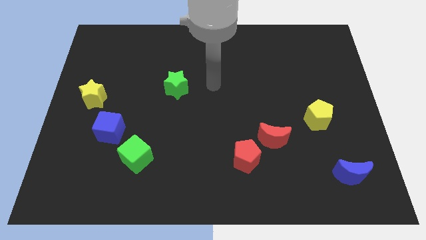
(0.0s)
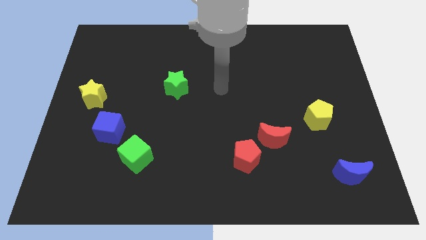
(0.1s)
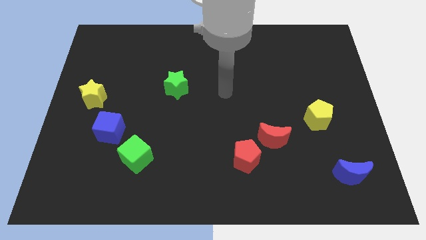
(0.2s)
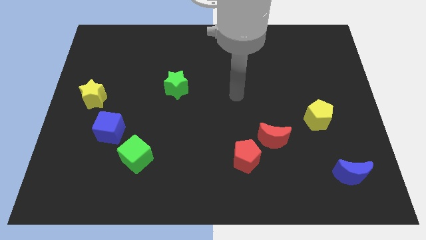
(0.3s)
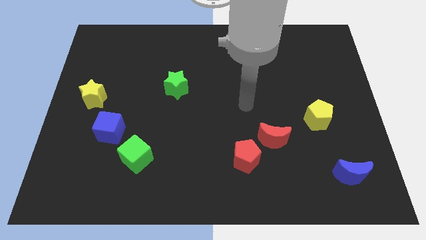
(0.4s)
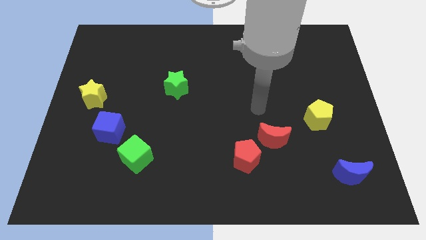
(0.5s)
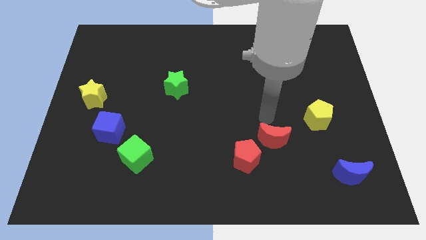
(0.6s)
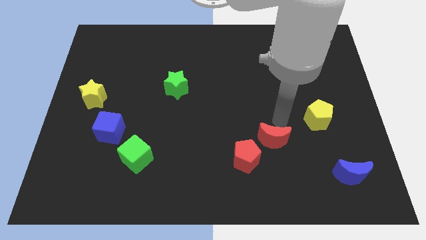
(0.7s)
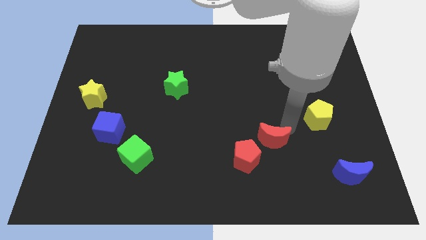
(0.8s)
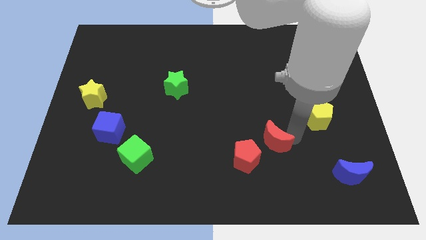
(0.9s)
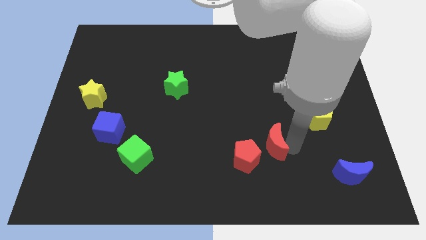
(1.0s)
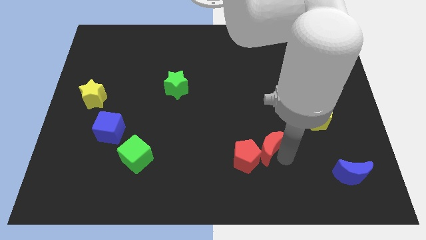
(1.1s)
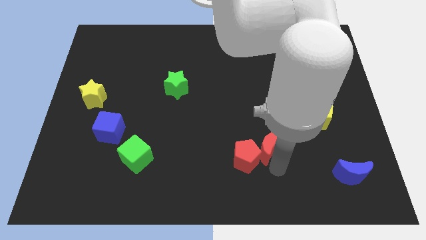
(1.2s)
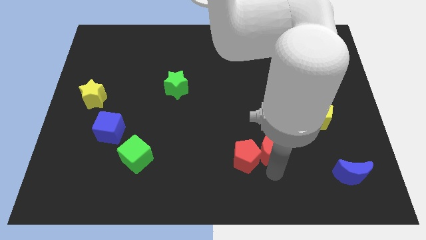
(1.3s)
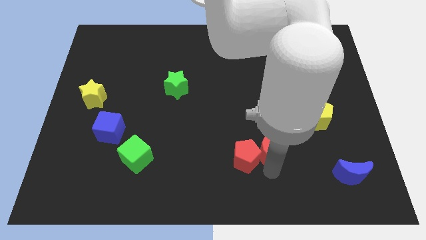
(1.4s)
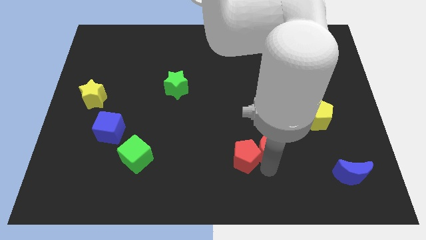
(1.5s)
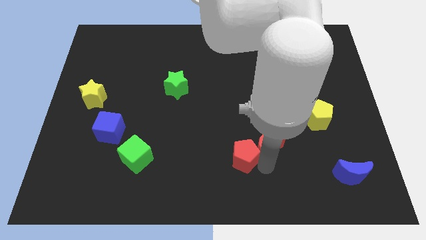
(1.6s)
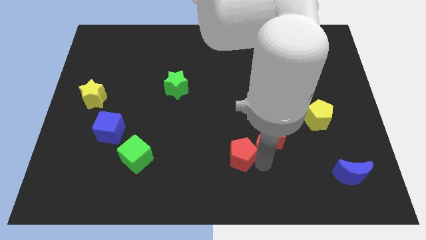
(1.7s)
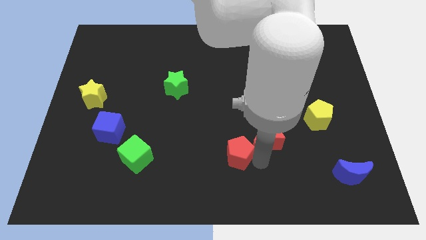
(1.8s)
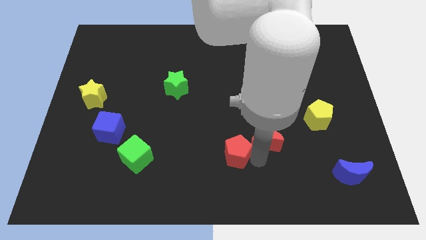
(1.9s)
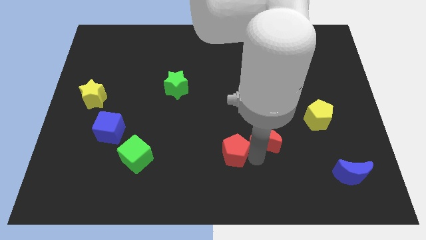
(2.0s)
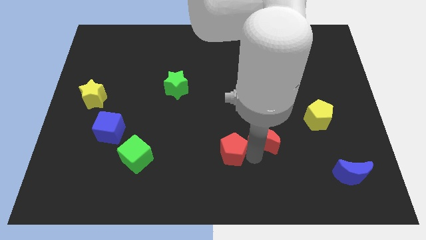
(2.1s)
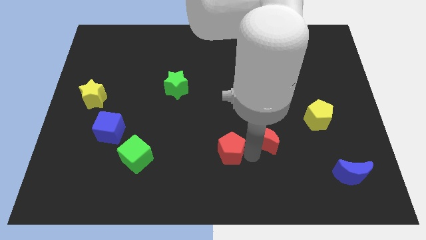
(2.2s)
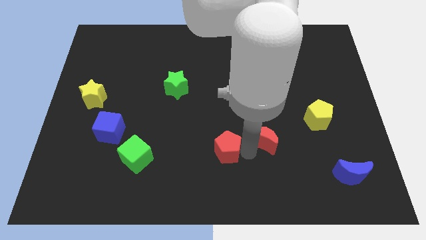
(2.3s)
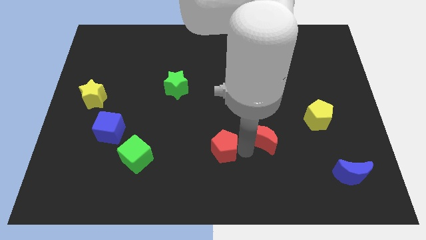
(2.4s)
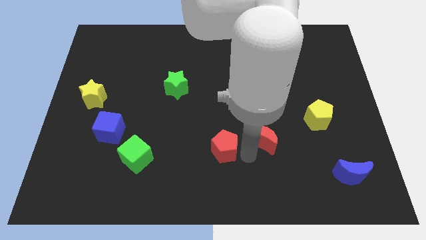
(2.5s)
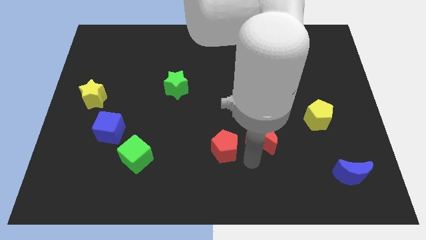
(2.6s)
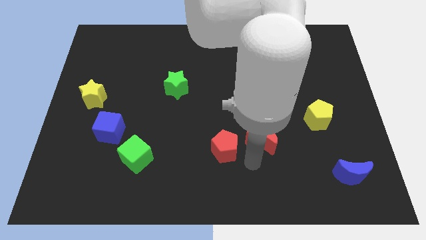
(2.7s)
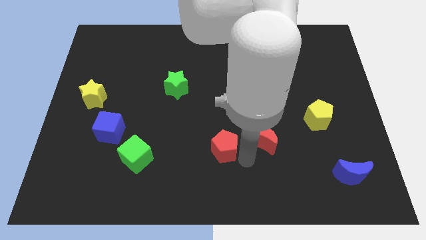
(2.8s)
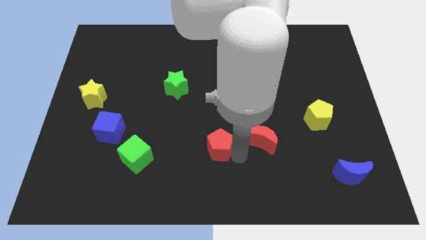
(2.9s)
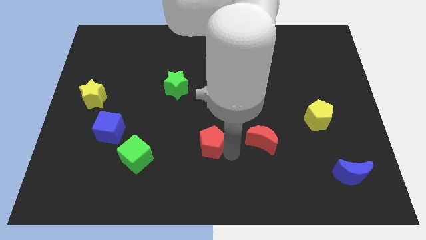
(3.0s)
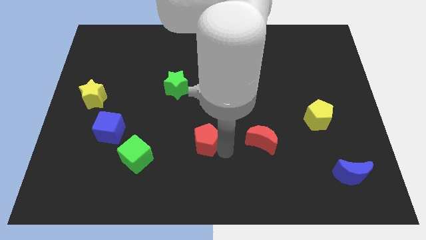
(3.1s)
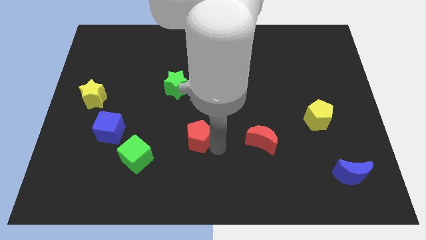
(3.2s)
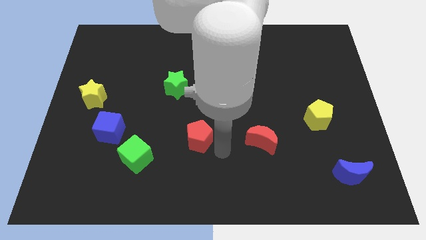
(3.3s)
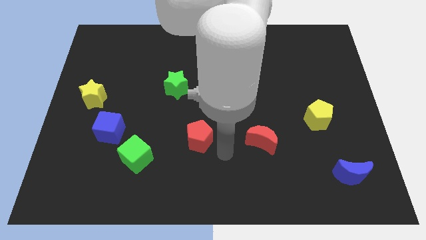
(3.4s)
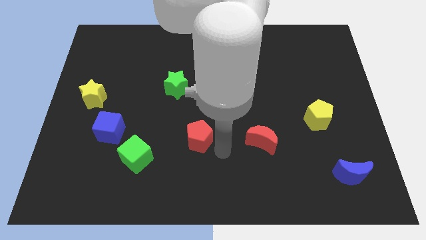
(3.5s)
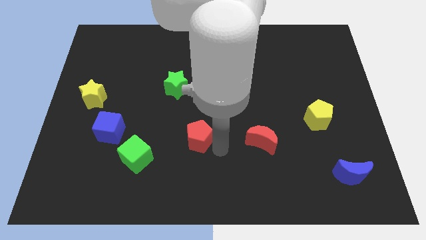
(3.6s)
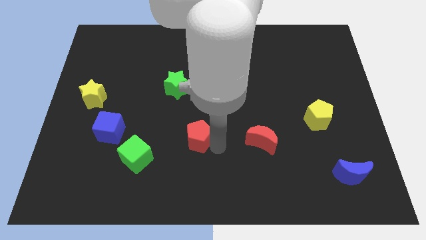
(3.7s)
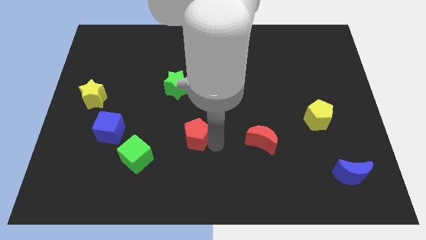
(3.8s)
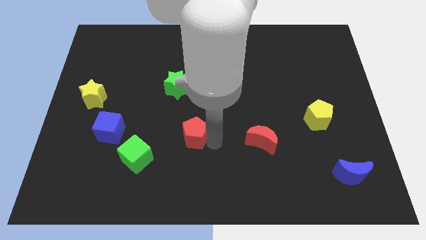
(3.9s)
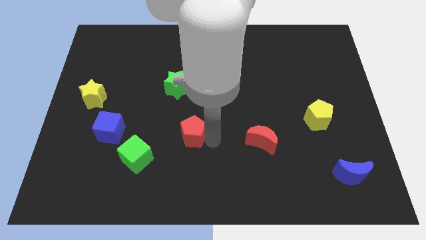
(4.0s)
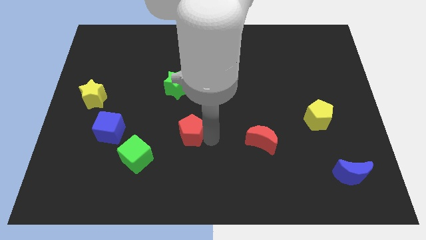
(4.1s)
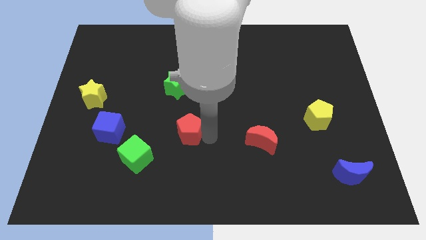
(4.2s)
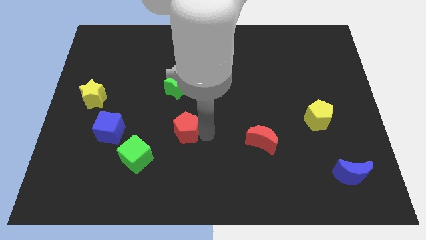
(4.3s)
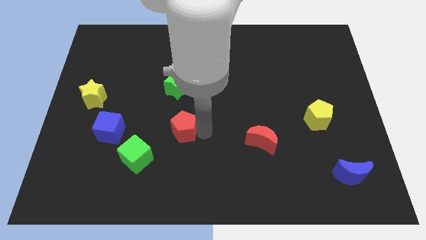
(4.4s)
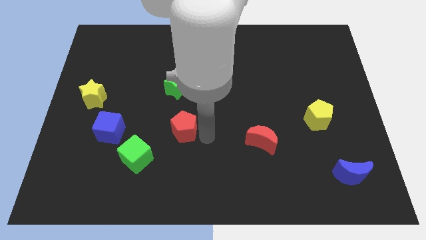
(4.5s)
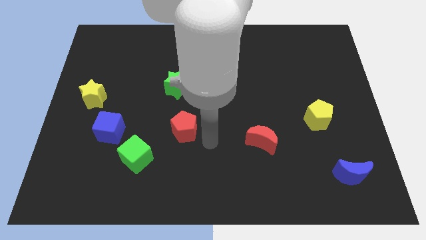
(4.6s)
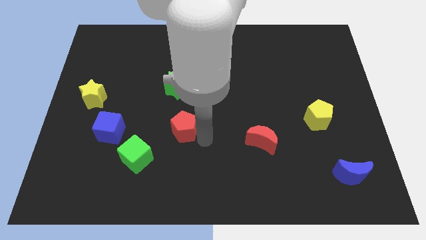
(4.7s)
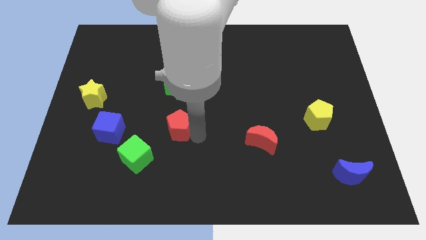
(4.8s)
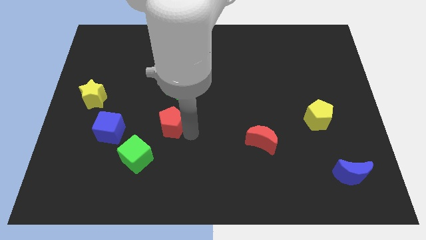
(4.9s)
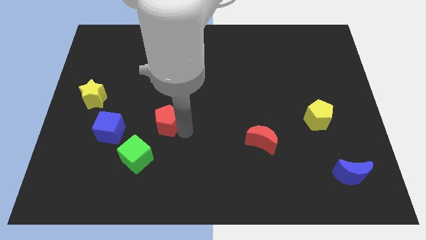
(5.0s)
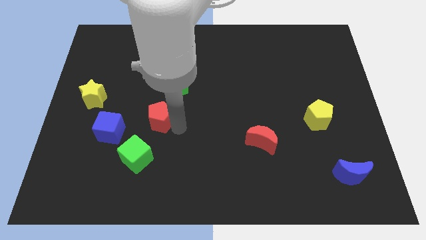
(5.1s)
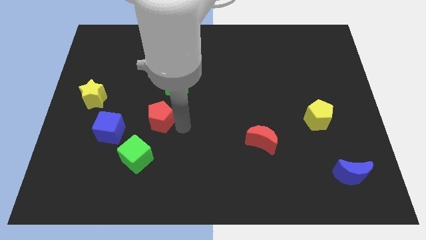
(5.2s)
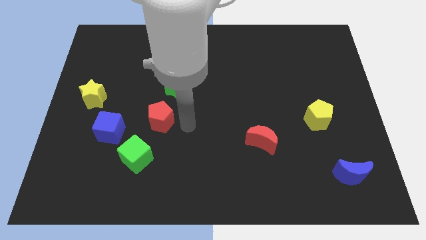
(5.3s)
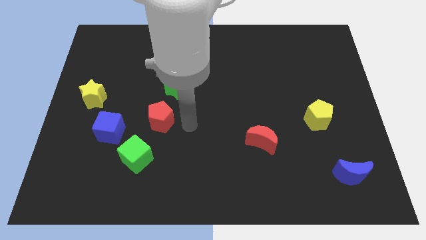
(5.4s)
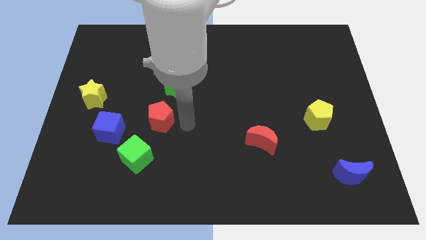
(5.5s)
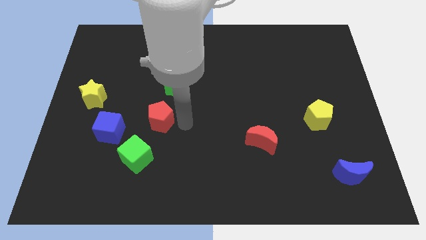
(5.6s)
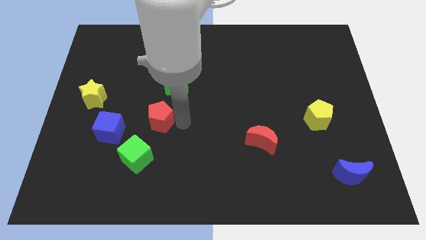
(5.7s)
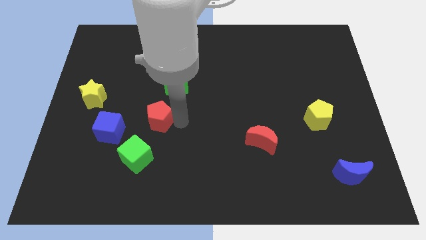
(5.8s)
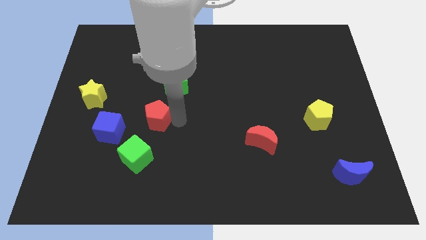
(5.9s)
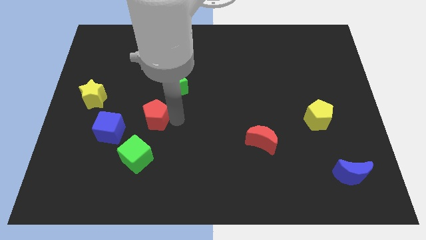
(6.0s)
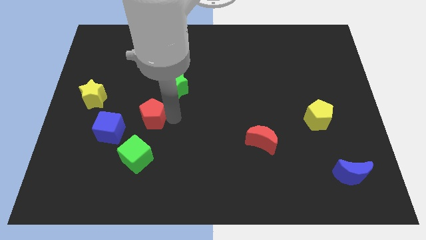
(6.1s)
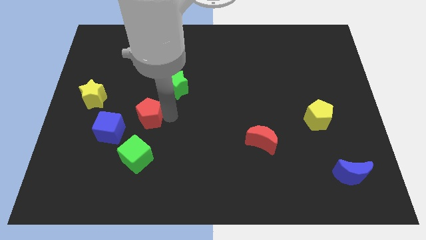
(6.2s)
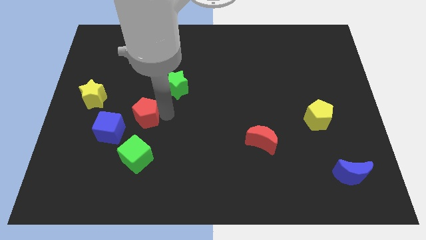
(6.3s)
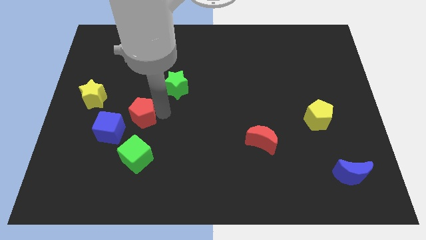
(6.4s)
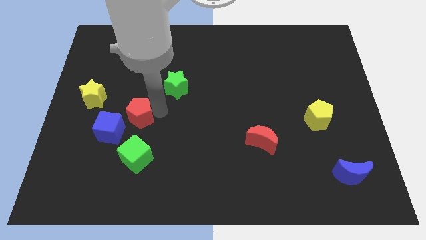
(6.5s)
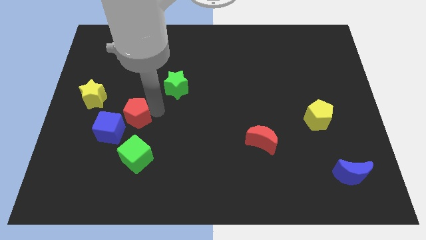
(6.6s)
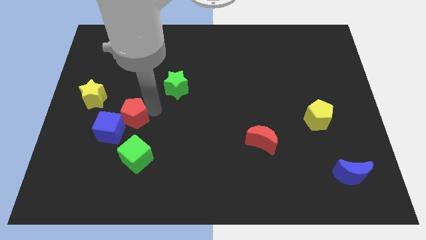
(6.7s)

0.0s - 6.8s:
move the red pentagon diagonally down and to the right of the yellow star

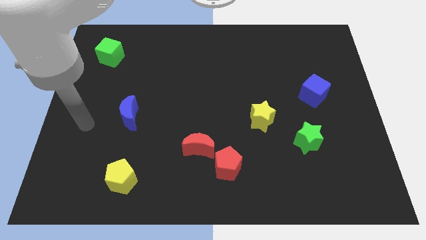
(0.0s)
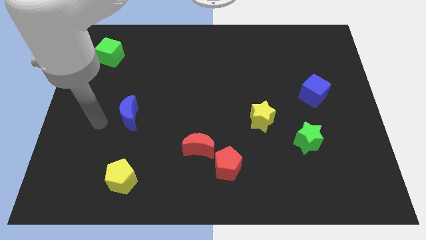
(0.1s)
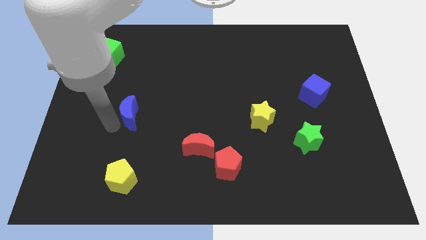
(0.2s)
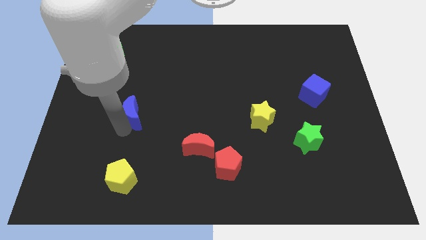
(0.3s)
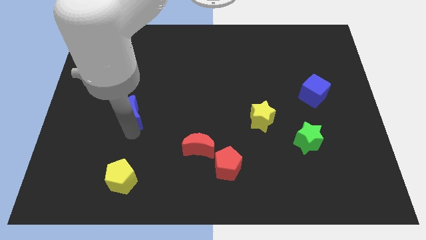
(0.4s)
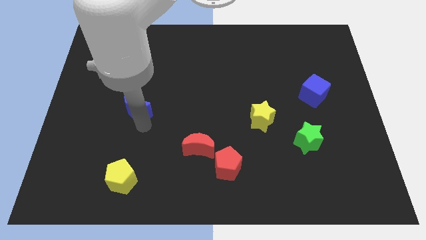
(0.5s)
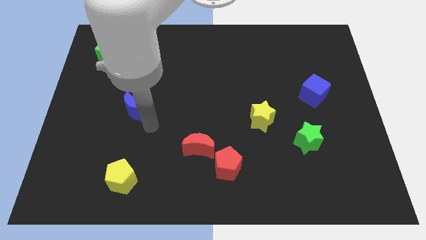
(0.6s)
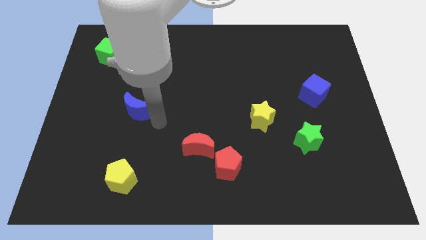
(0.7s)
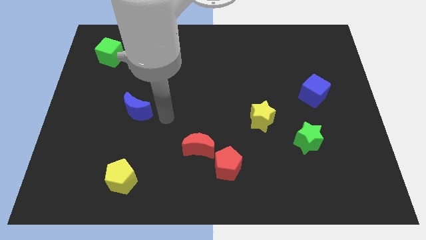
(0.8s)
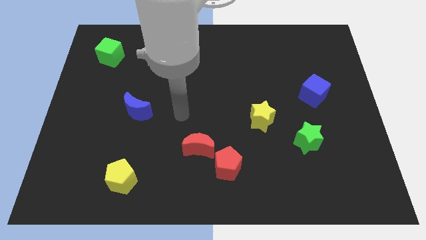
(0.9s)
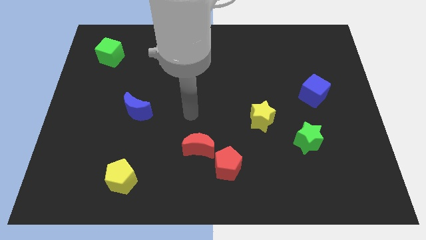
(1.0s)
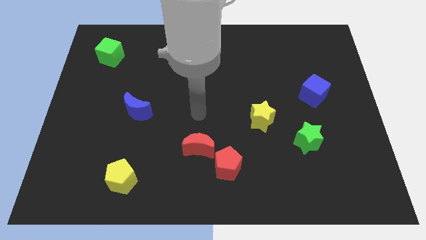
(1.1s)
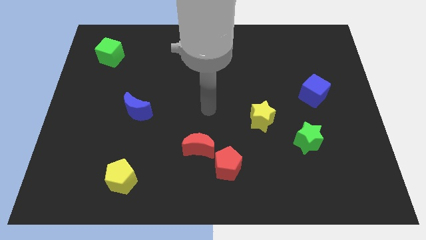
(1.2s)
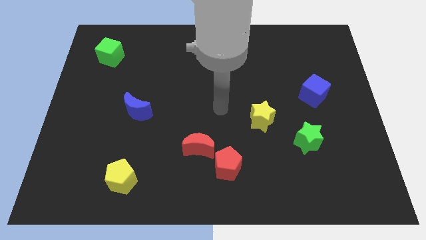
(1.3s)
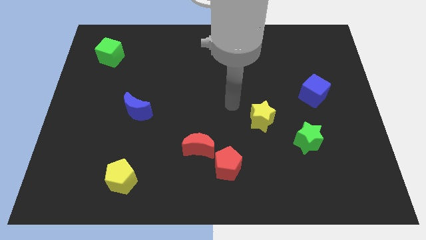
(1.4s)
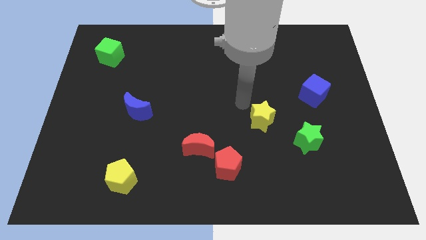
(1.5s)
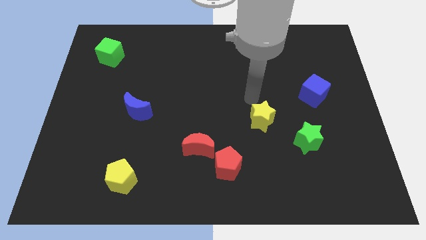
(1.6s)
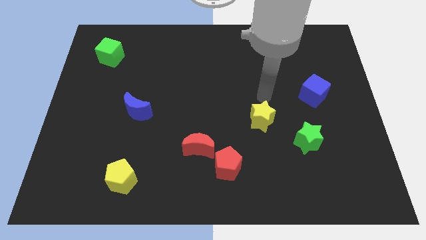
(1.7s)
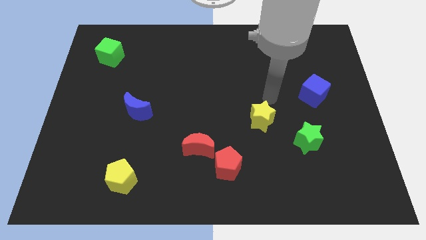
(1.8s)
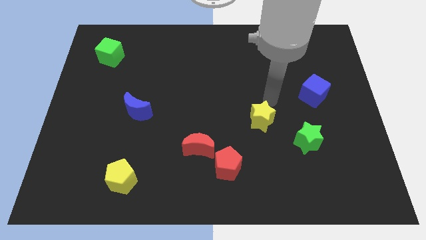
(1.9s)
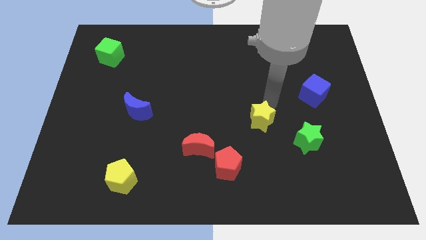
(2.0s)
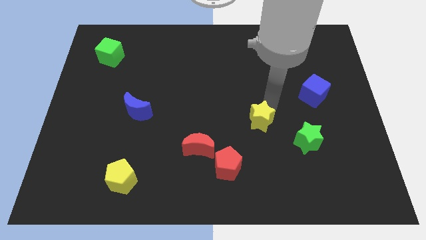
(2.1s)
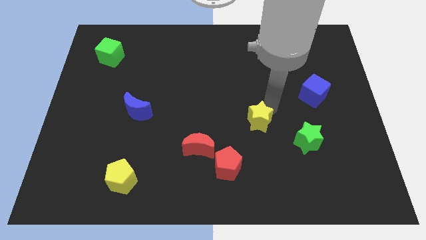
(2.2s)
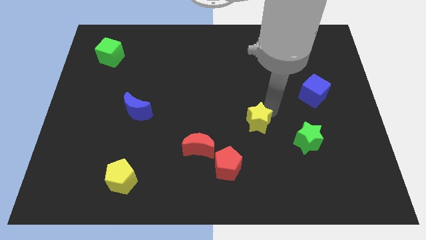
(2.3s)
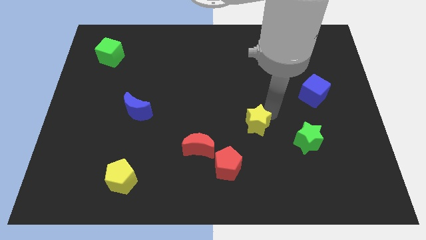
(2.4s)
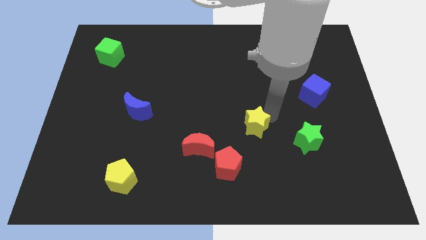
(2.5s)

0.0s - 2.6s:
put the yellow star diagonally up and to the right of the red pentagon
